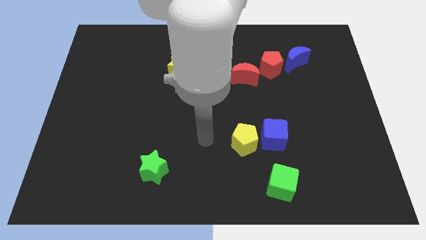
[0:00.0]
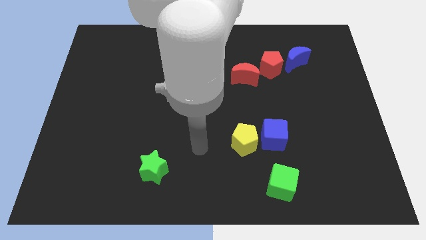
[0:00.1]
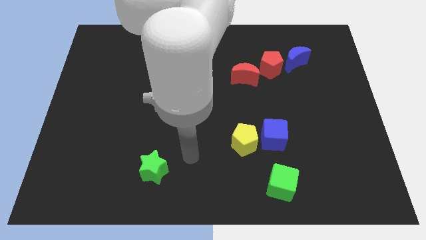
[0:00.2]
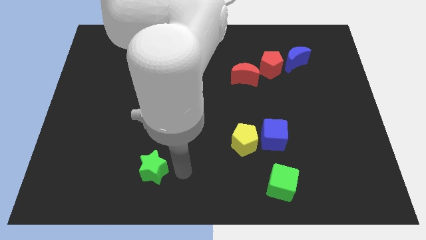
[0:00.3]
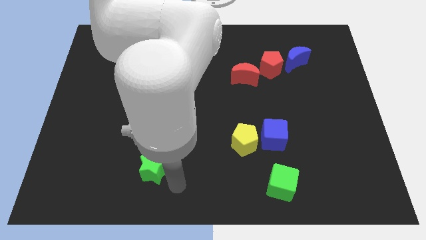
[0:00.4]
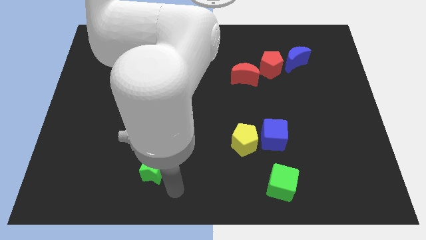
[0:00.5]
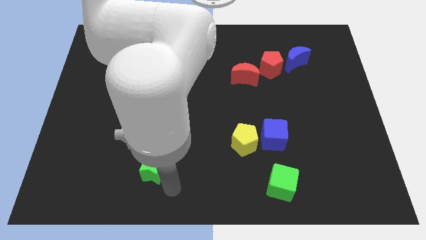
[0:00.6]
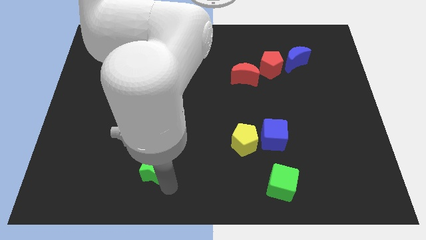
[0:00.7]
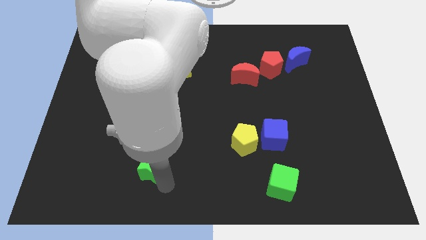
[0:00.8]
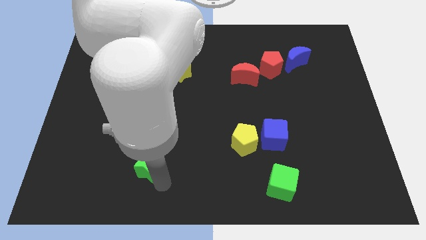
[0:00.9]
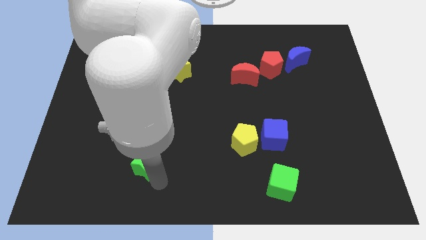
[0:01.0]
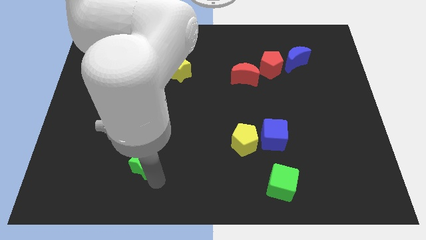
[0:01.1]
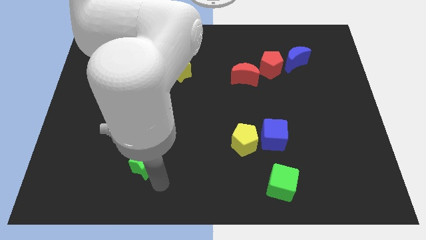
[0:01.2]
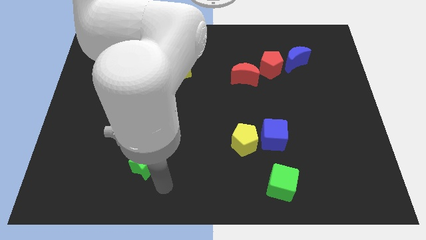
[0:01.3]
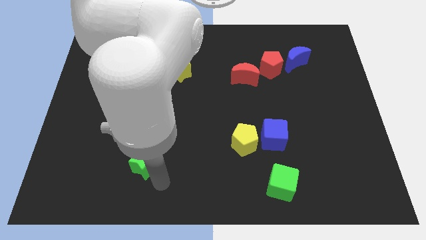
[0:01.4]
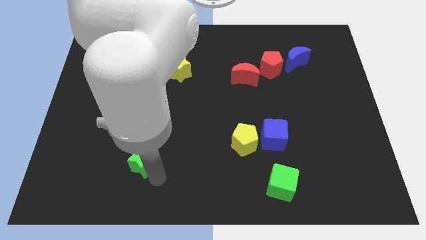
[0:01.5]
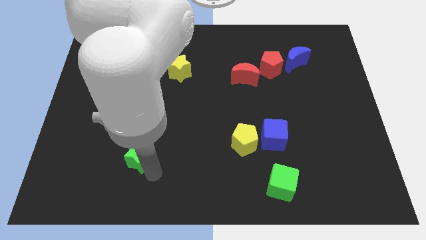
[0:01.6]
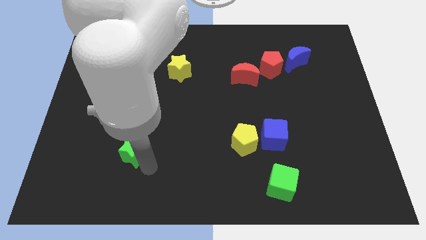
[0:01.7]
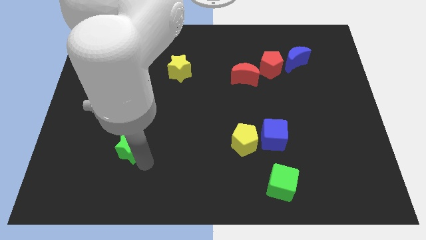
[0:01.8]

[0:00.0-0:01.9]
slightly move the green star up and then left

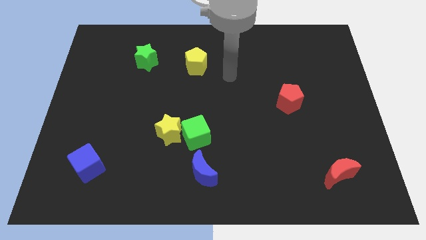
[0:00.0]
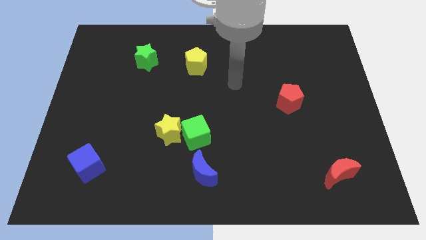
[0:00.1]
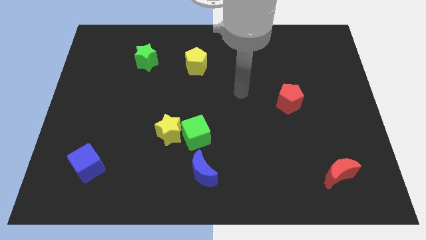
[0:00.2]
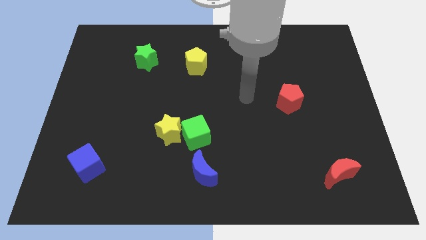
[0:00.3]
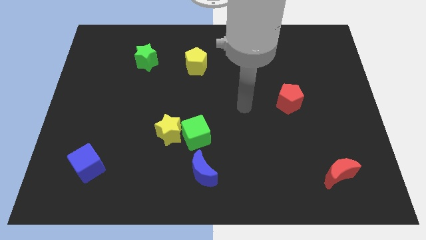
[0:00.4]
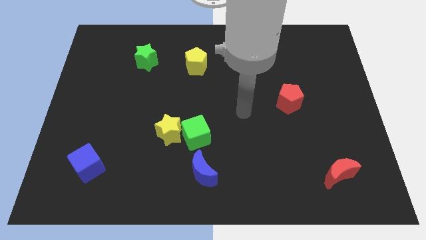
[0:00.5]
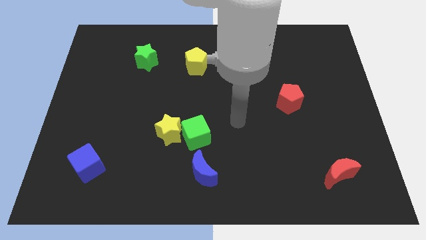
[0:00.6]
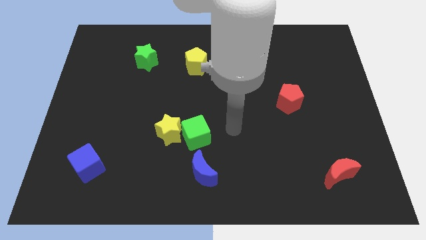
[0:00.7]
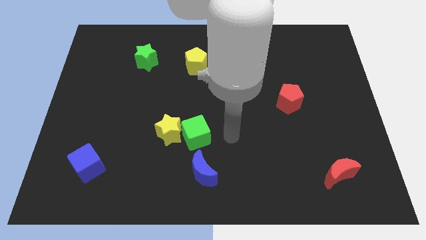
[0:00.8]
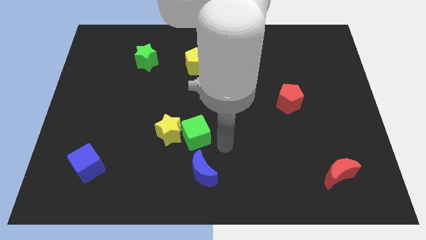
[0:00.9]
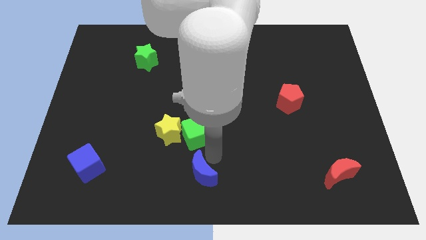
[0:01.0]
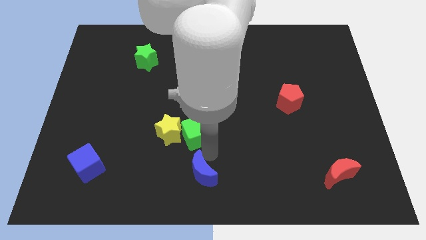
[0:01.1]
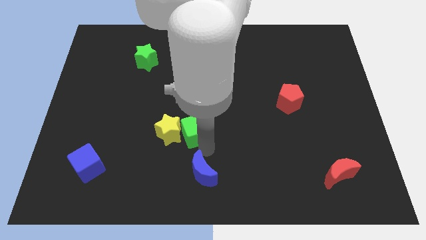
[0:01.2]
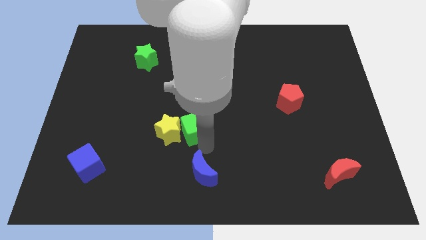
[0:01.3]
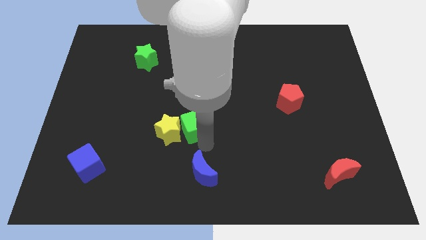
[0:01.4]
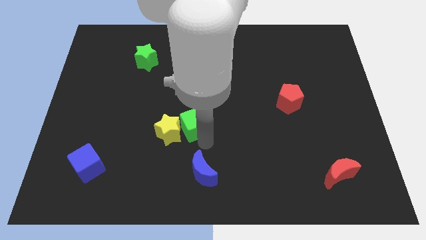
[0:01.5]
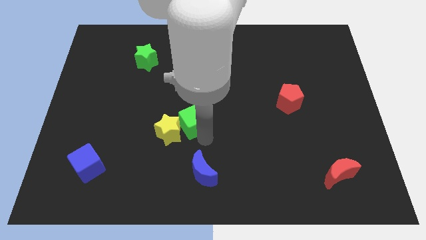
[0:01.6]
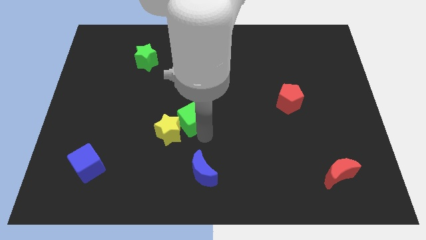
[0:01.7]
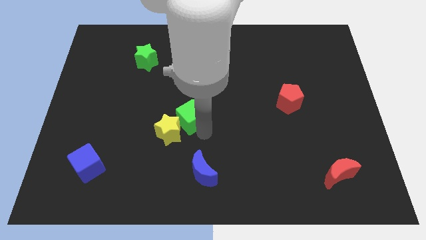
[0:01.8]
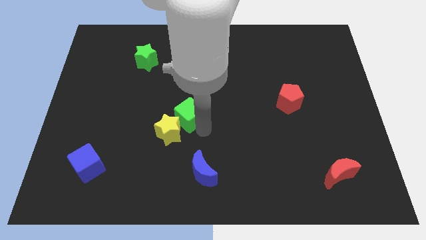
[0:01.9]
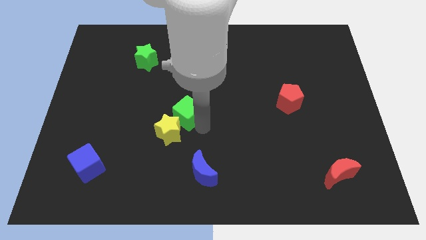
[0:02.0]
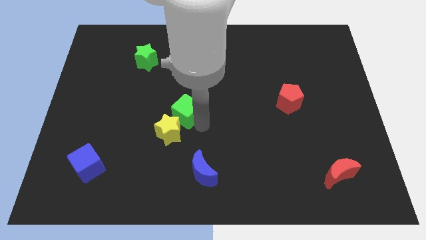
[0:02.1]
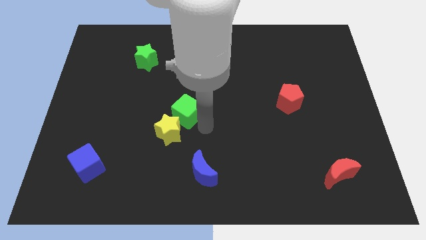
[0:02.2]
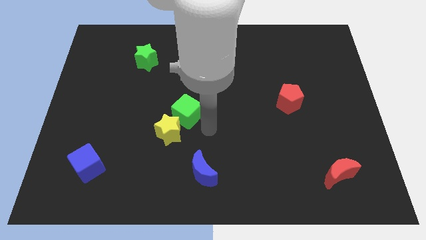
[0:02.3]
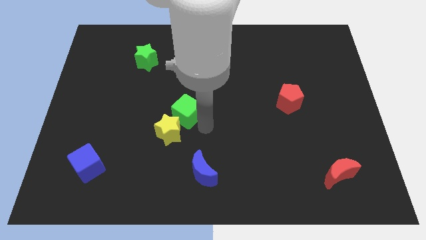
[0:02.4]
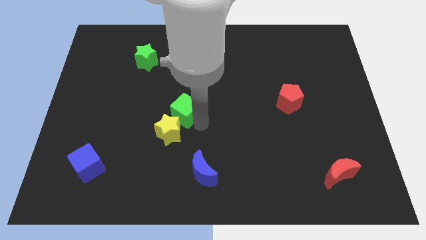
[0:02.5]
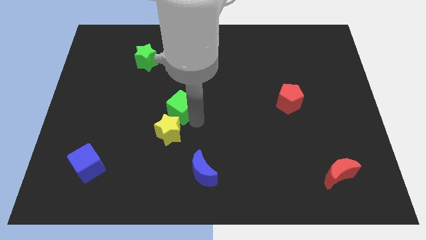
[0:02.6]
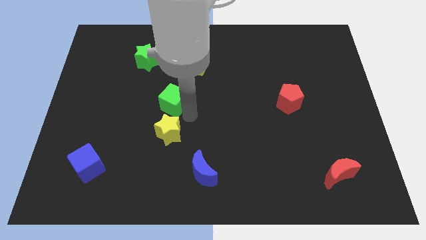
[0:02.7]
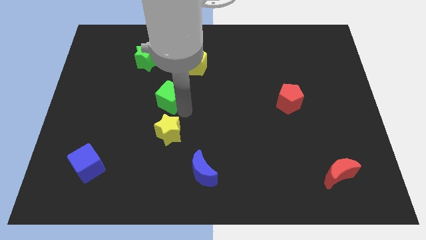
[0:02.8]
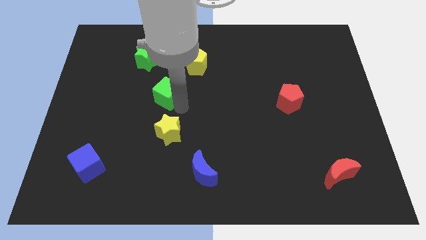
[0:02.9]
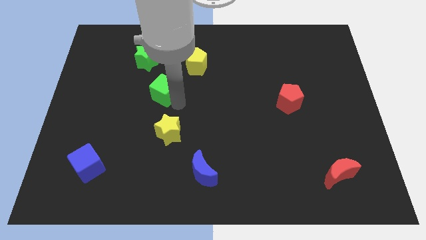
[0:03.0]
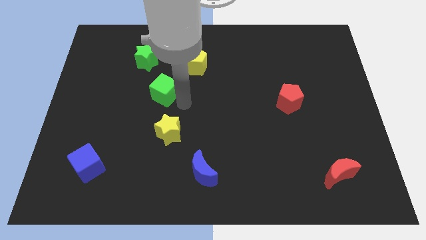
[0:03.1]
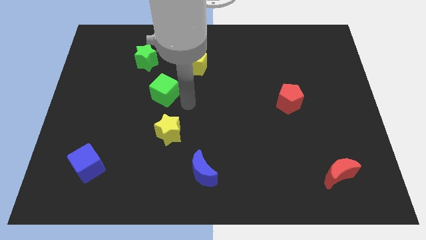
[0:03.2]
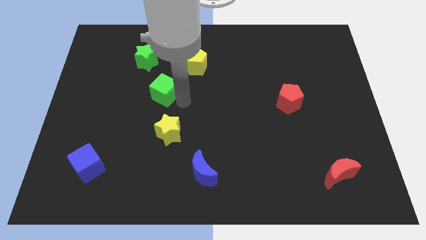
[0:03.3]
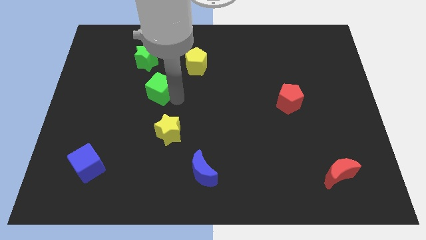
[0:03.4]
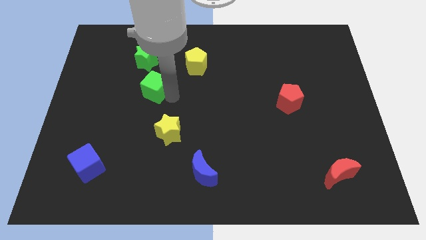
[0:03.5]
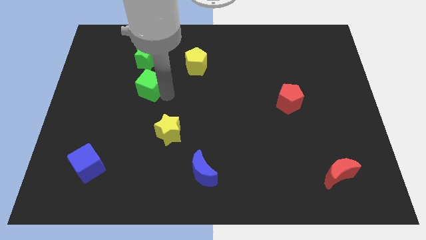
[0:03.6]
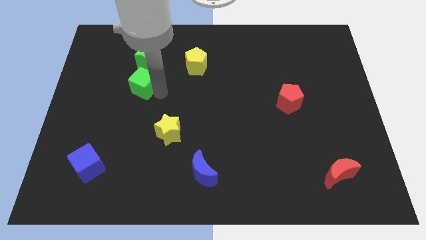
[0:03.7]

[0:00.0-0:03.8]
push the green cube upwards and left

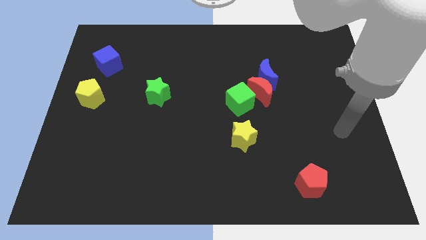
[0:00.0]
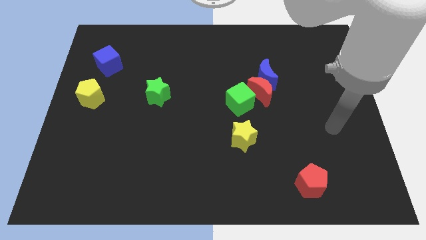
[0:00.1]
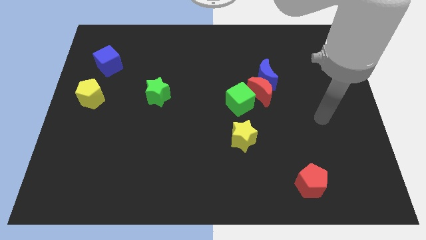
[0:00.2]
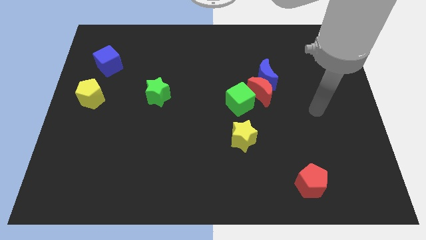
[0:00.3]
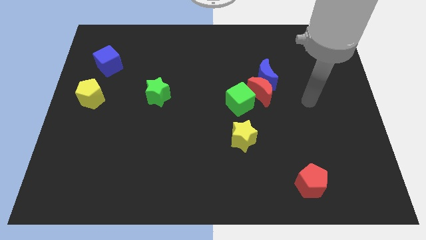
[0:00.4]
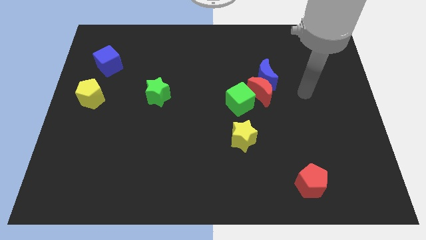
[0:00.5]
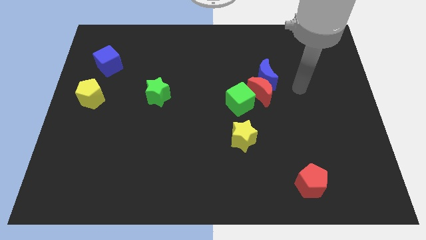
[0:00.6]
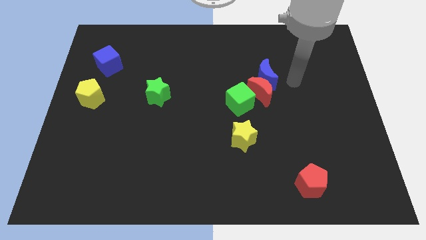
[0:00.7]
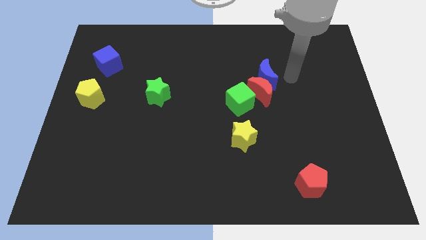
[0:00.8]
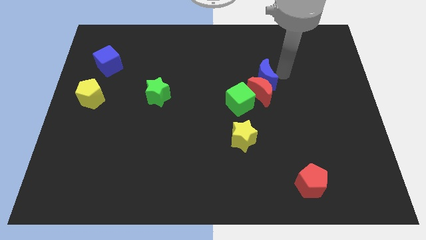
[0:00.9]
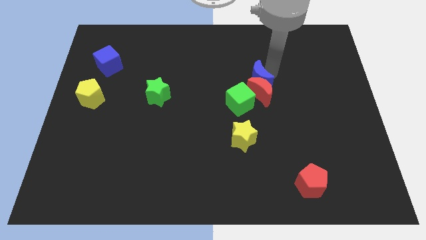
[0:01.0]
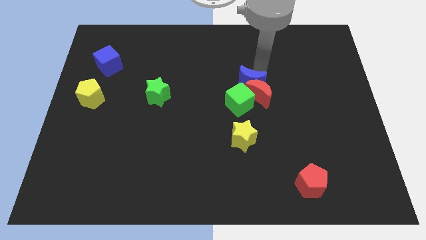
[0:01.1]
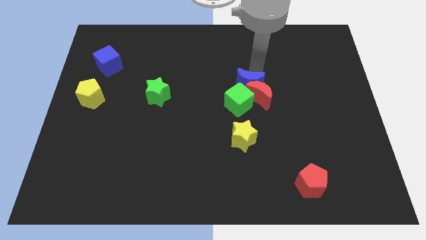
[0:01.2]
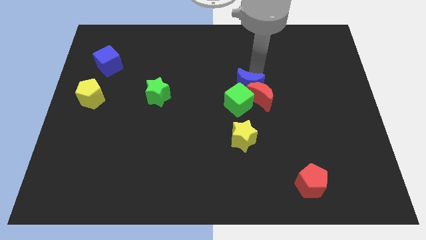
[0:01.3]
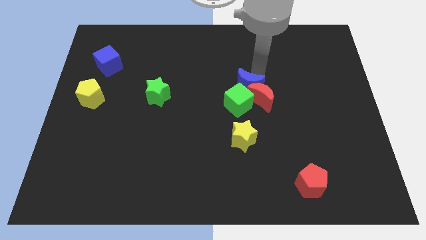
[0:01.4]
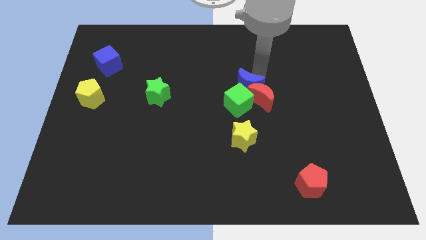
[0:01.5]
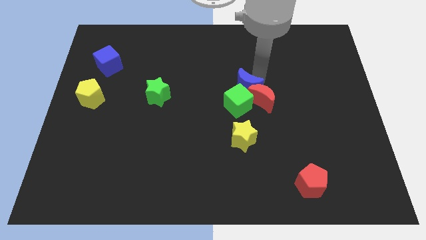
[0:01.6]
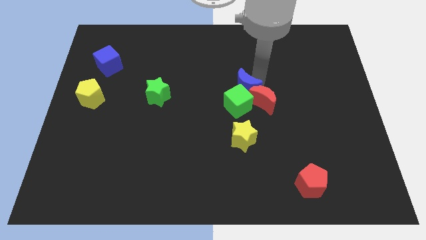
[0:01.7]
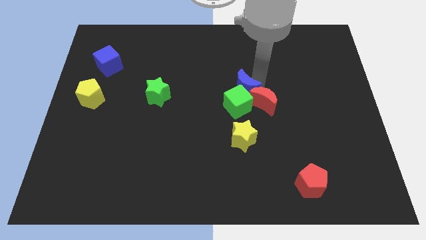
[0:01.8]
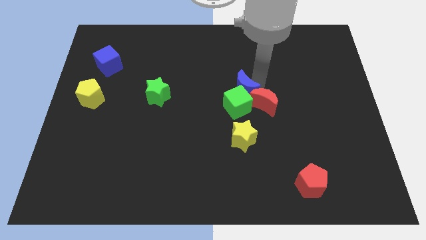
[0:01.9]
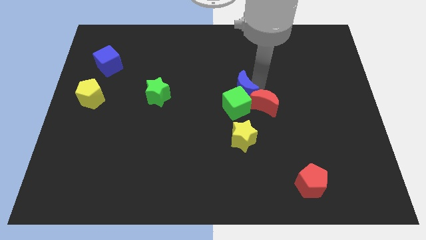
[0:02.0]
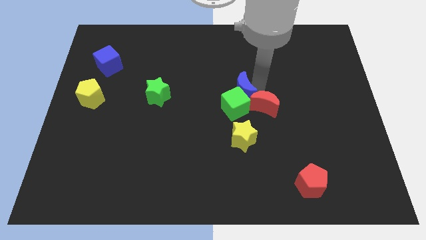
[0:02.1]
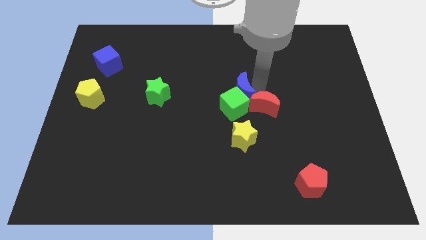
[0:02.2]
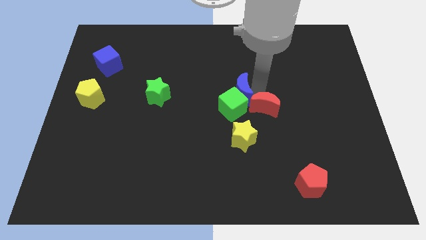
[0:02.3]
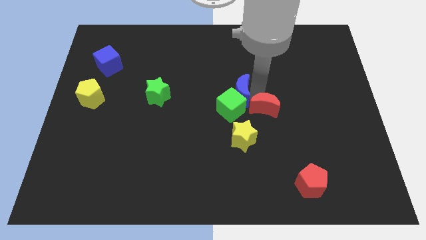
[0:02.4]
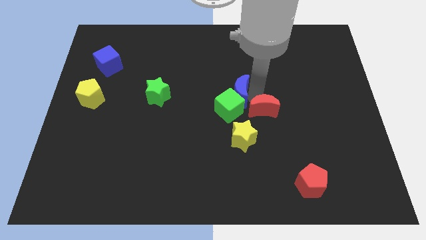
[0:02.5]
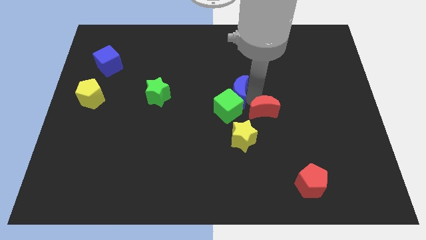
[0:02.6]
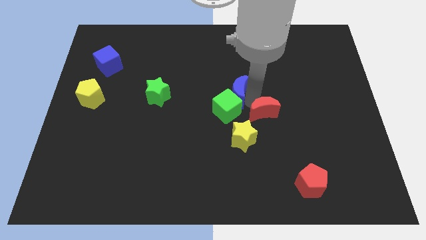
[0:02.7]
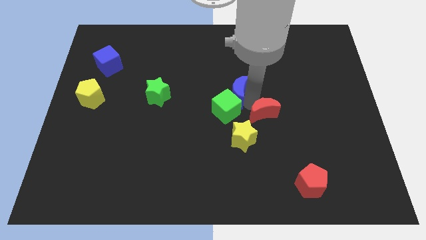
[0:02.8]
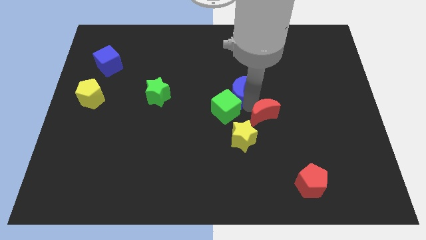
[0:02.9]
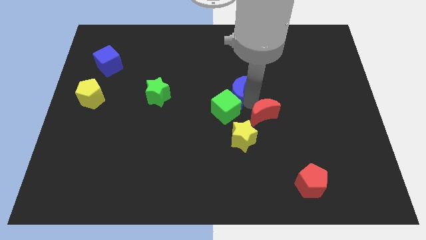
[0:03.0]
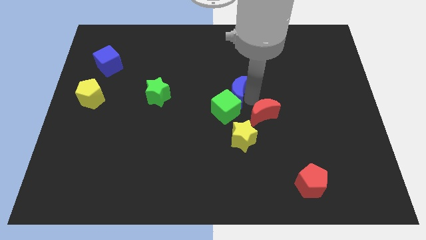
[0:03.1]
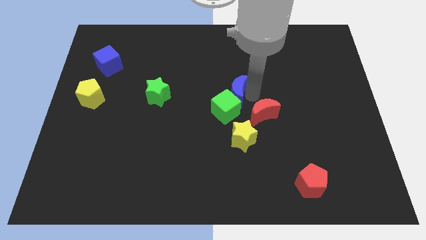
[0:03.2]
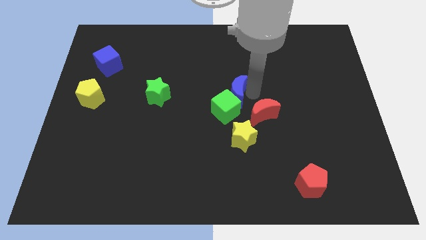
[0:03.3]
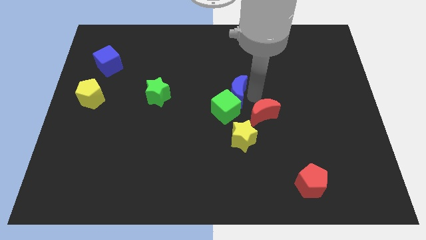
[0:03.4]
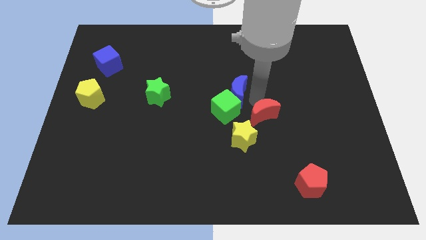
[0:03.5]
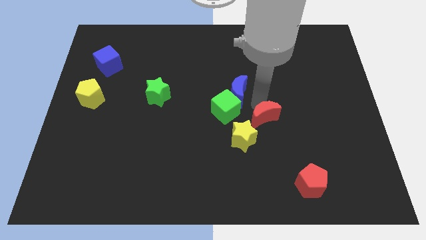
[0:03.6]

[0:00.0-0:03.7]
push the red moon down a little bit
